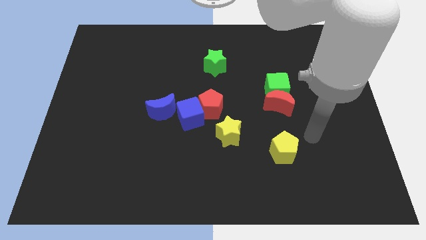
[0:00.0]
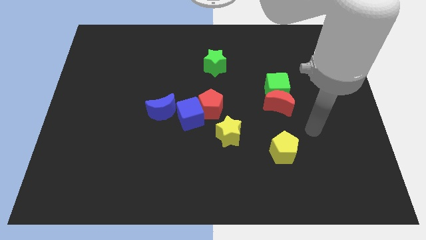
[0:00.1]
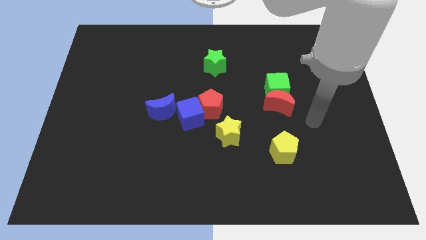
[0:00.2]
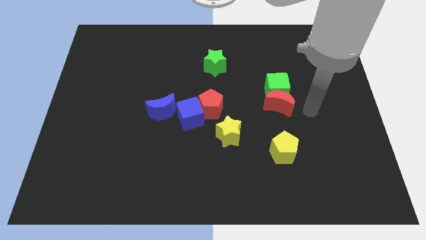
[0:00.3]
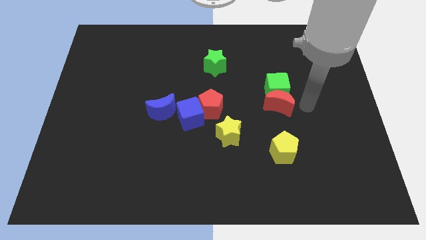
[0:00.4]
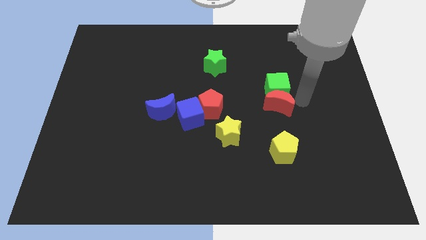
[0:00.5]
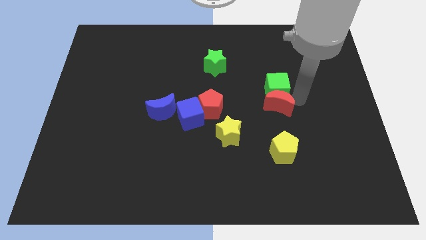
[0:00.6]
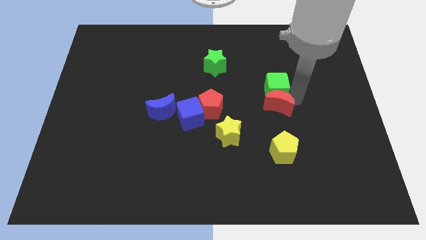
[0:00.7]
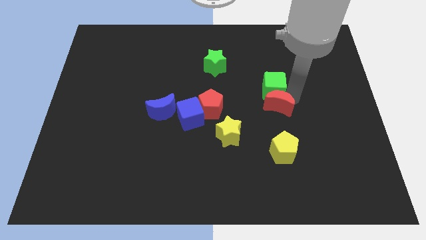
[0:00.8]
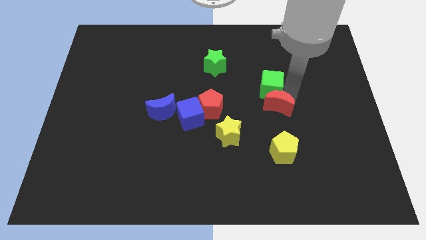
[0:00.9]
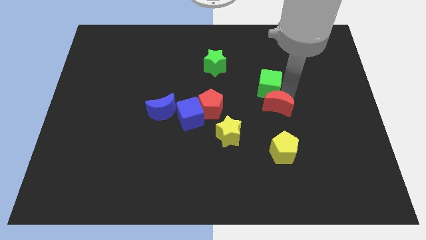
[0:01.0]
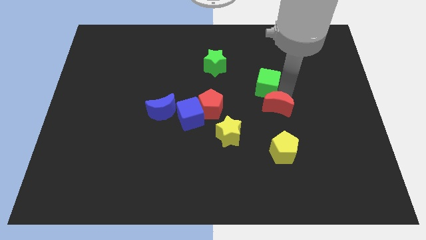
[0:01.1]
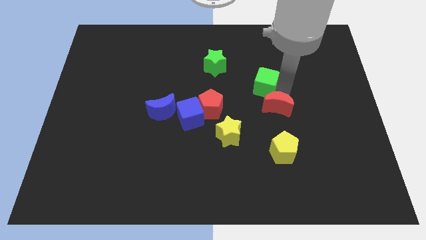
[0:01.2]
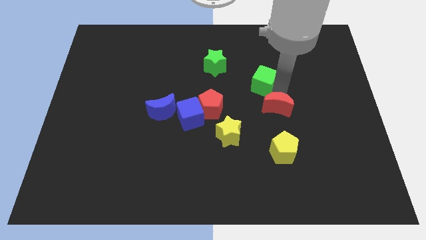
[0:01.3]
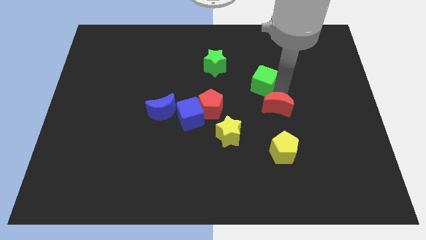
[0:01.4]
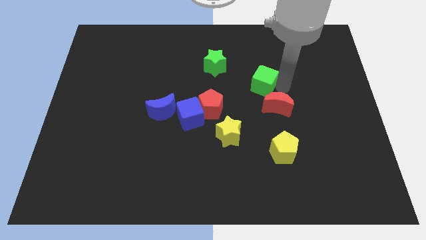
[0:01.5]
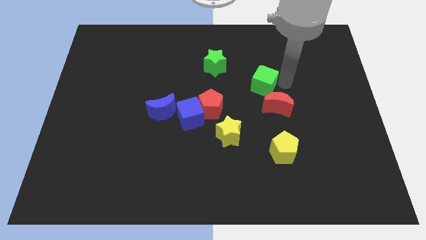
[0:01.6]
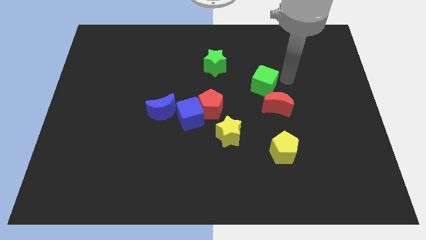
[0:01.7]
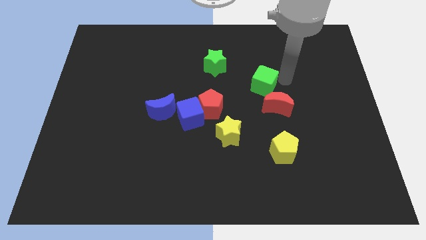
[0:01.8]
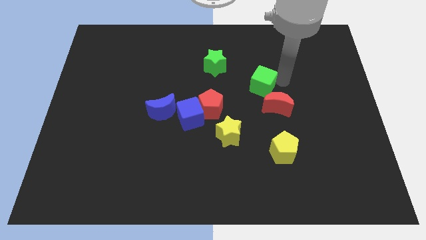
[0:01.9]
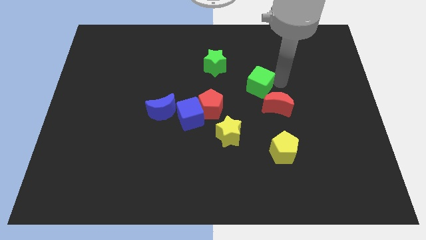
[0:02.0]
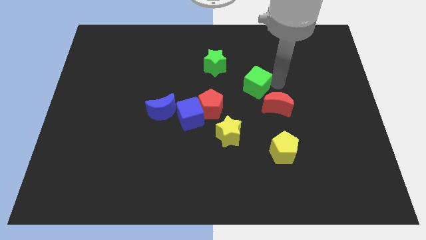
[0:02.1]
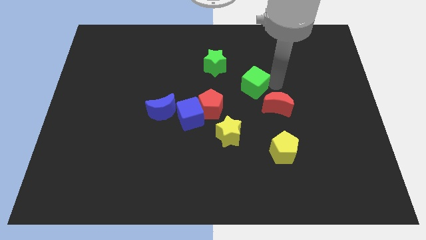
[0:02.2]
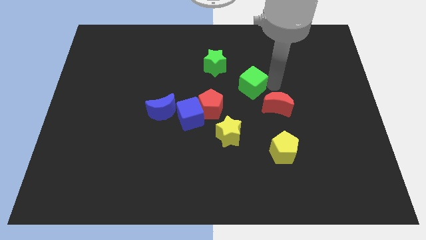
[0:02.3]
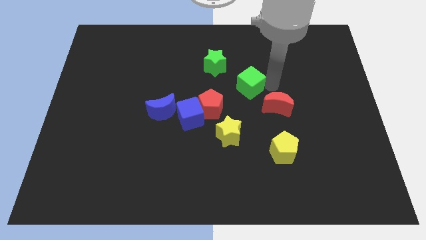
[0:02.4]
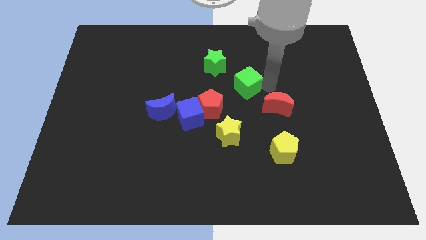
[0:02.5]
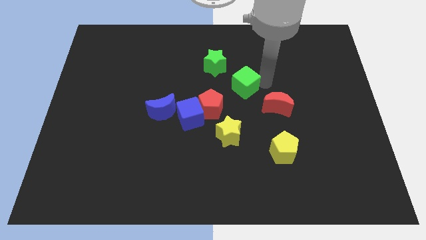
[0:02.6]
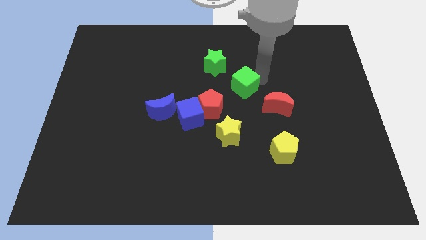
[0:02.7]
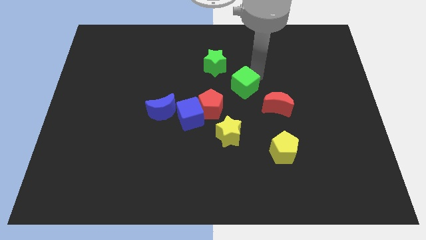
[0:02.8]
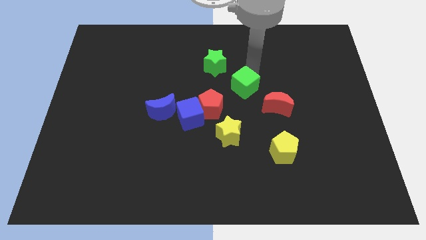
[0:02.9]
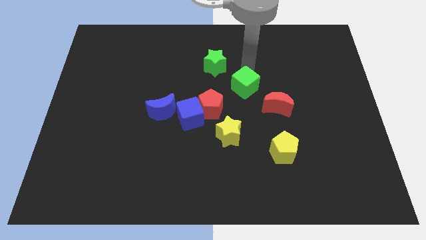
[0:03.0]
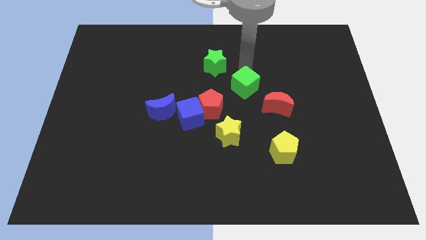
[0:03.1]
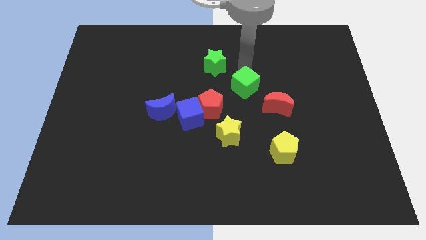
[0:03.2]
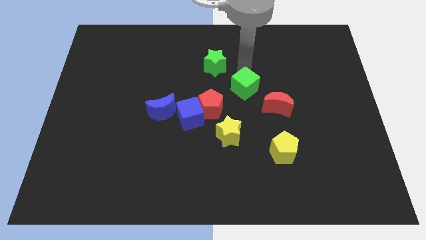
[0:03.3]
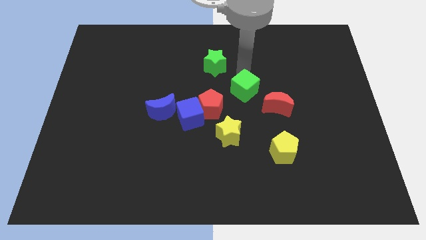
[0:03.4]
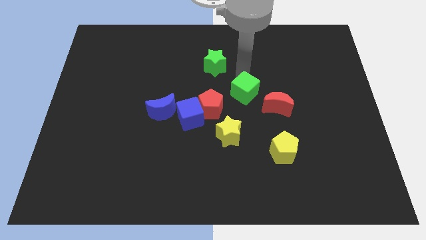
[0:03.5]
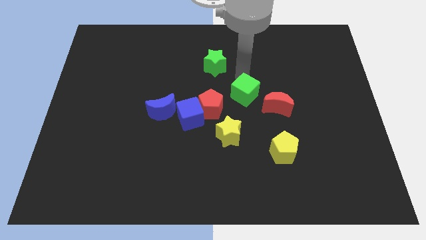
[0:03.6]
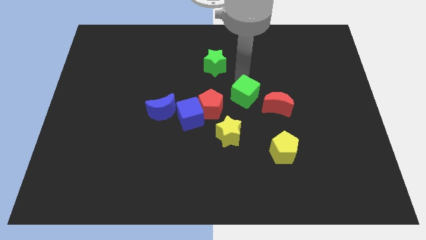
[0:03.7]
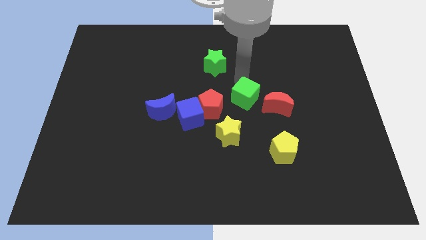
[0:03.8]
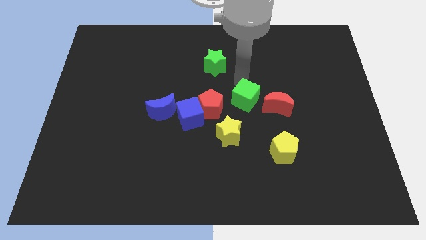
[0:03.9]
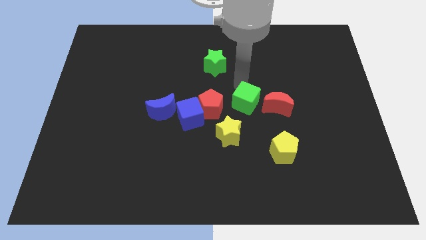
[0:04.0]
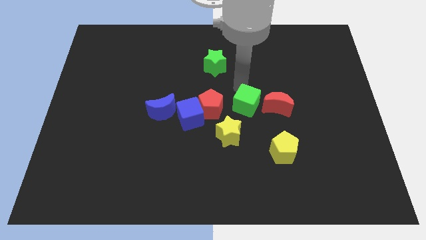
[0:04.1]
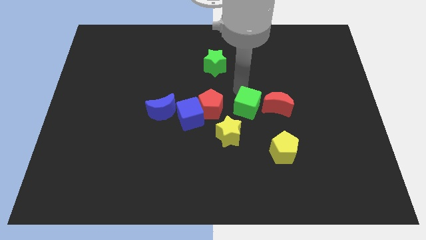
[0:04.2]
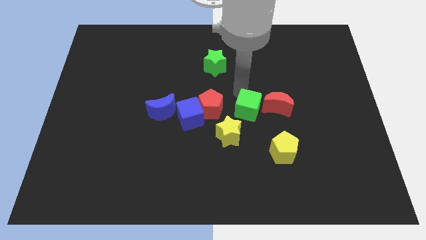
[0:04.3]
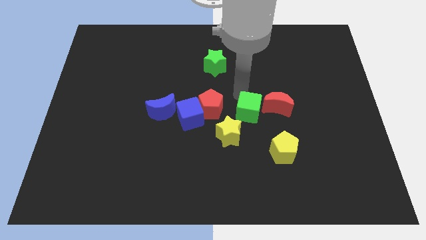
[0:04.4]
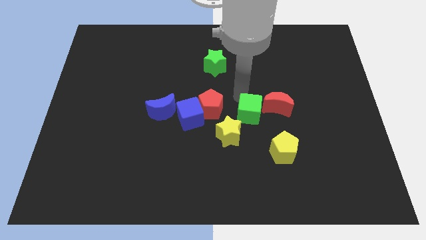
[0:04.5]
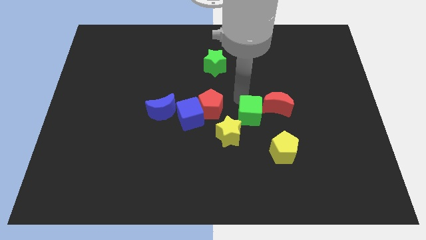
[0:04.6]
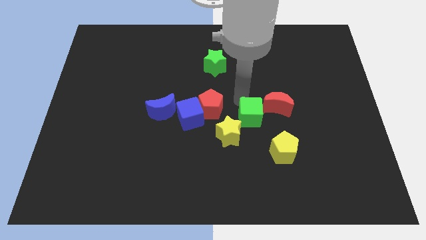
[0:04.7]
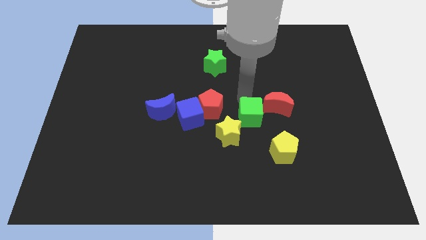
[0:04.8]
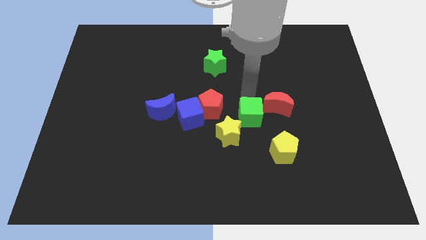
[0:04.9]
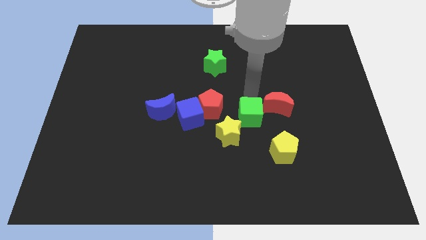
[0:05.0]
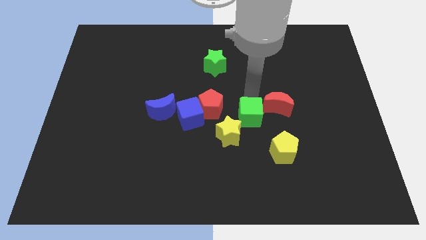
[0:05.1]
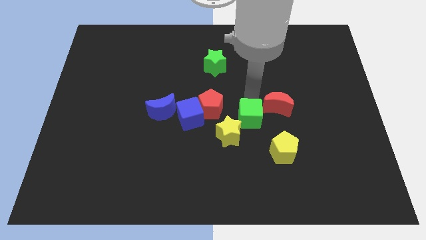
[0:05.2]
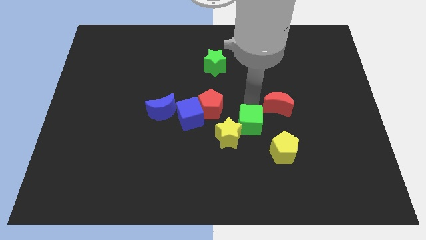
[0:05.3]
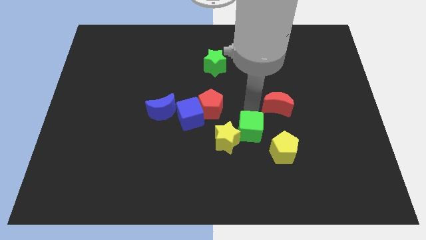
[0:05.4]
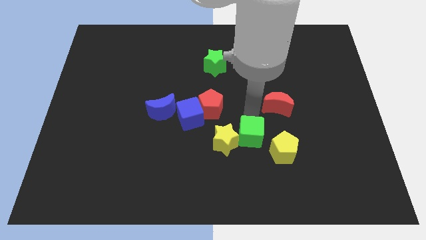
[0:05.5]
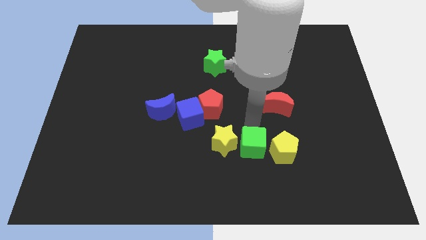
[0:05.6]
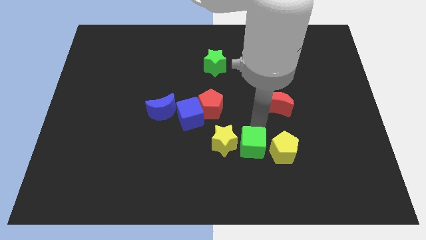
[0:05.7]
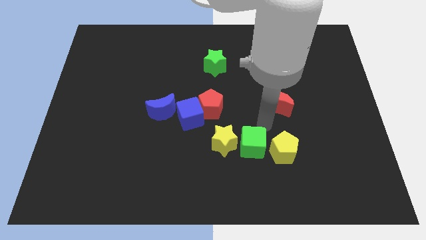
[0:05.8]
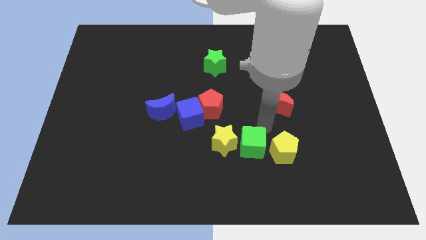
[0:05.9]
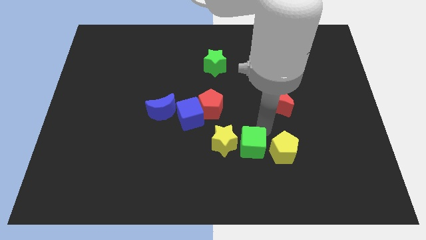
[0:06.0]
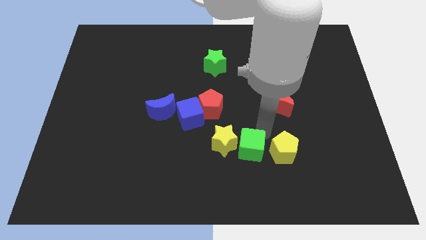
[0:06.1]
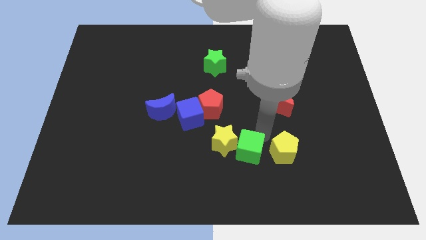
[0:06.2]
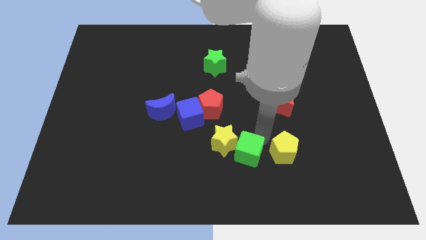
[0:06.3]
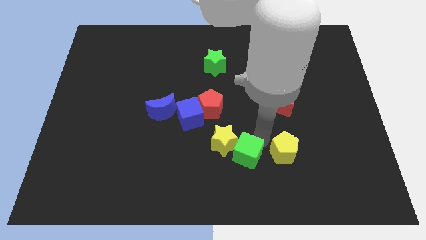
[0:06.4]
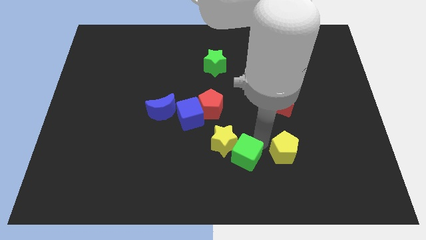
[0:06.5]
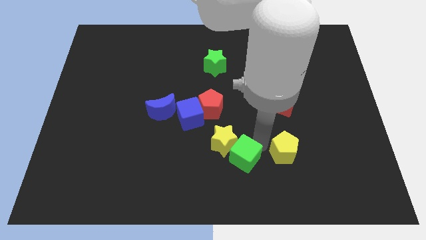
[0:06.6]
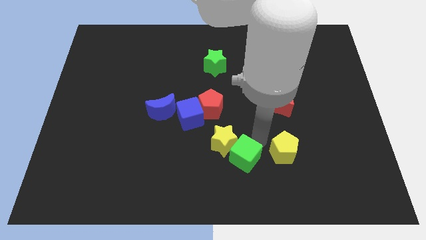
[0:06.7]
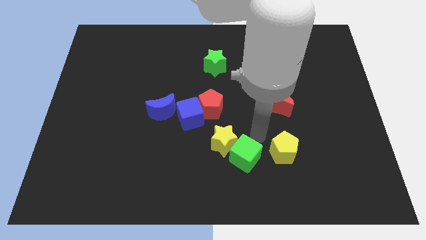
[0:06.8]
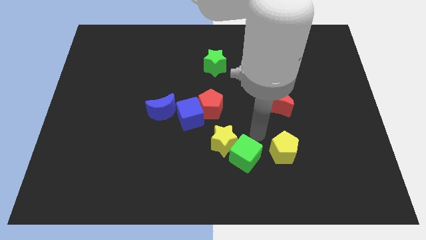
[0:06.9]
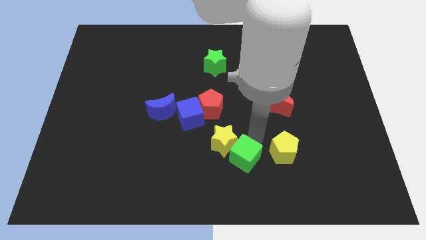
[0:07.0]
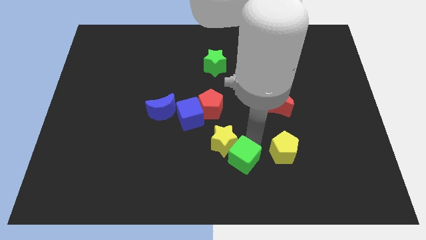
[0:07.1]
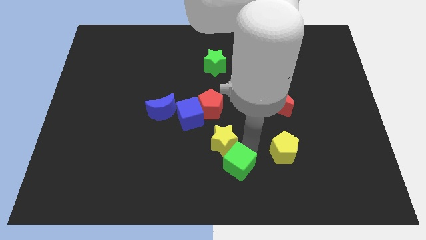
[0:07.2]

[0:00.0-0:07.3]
put the green cube to the bottom
